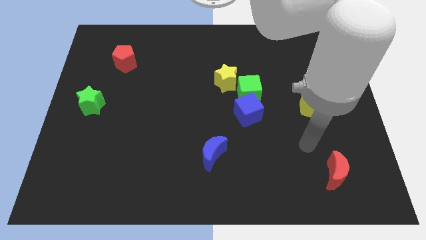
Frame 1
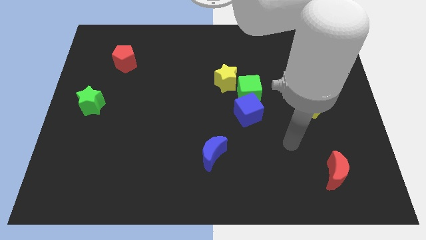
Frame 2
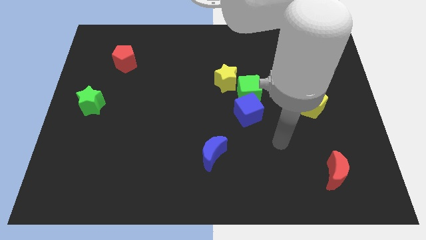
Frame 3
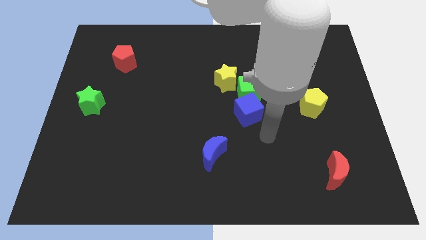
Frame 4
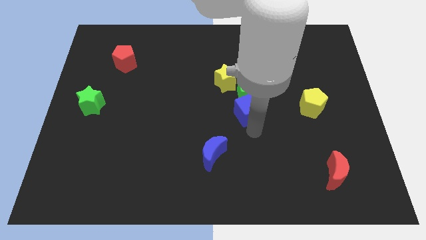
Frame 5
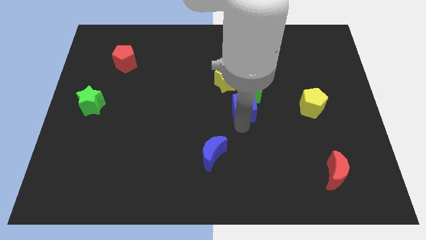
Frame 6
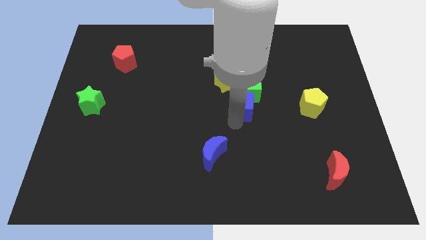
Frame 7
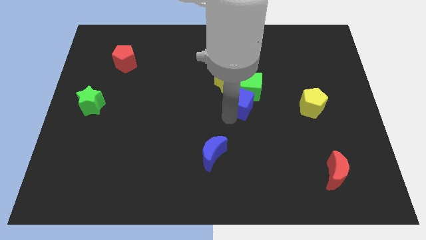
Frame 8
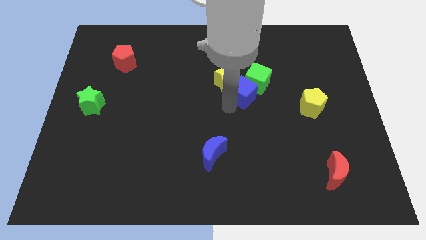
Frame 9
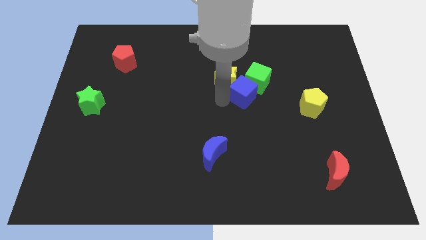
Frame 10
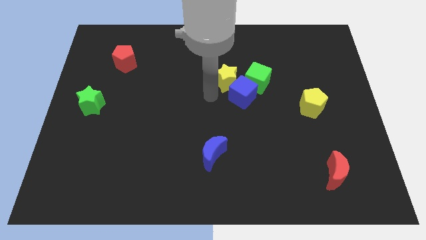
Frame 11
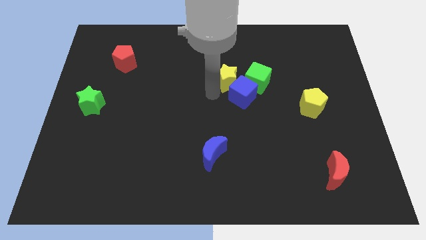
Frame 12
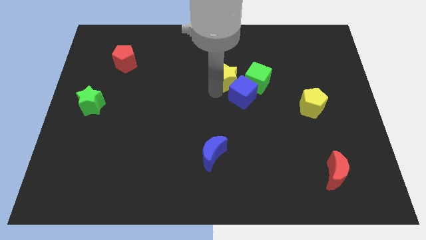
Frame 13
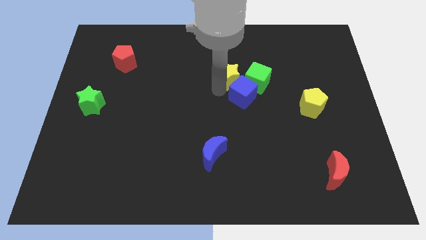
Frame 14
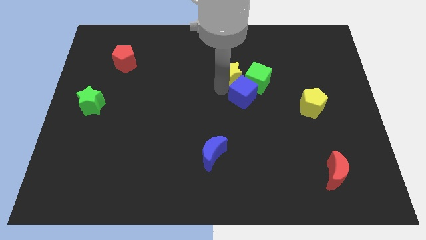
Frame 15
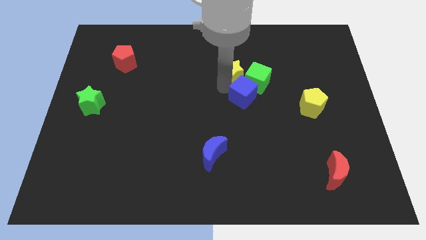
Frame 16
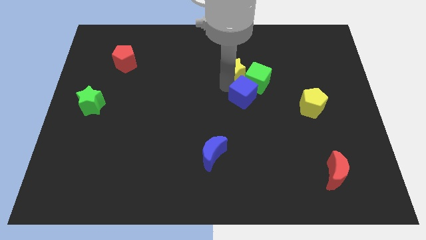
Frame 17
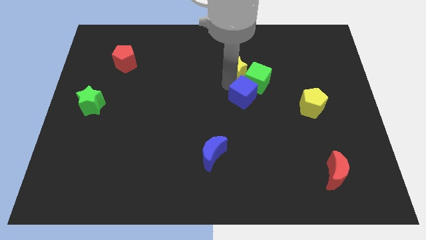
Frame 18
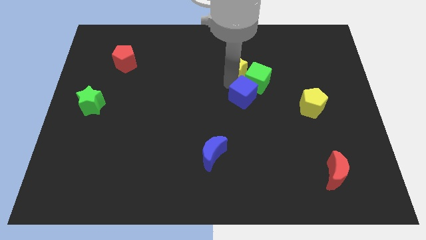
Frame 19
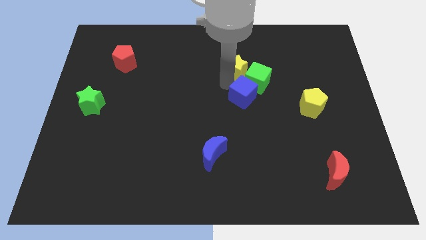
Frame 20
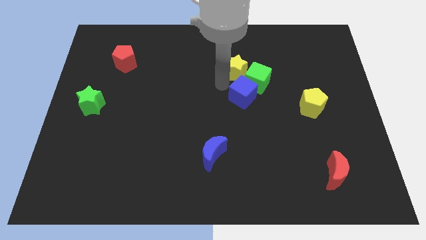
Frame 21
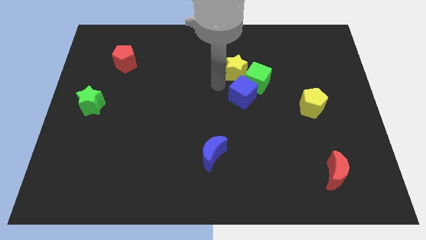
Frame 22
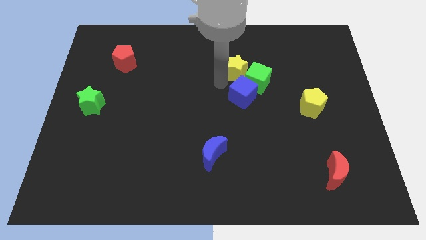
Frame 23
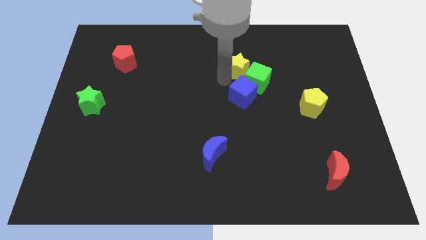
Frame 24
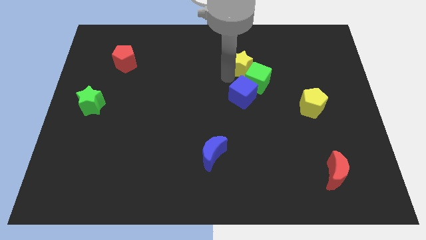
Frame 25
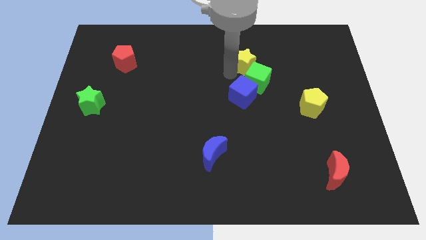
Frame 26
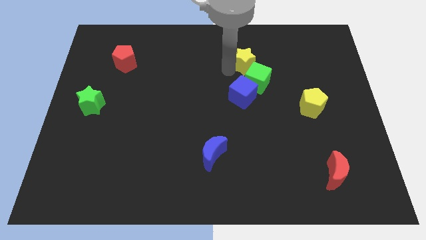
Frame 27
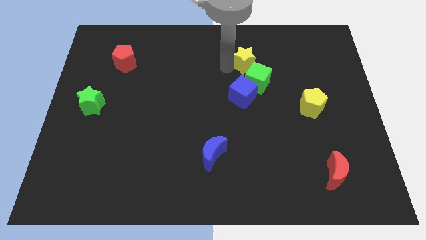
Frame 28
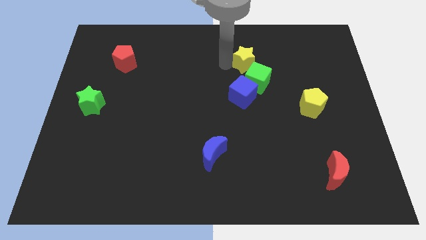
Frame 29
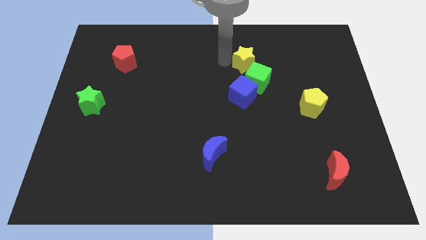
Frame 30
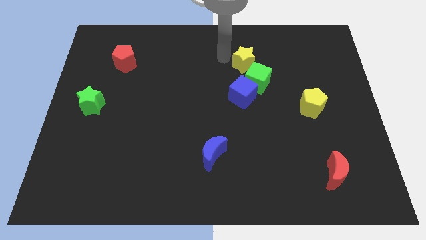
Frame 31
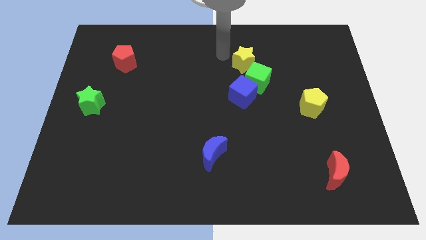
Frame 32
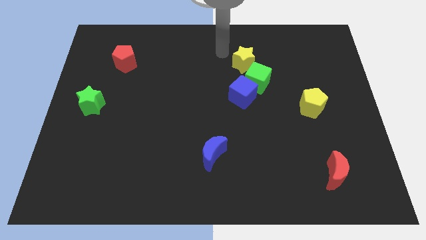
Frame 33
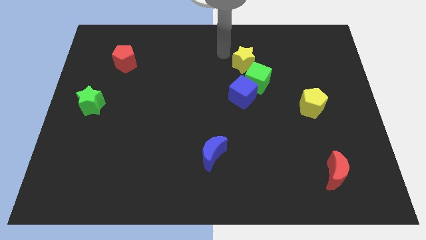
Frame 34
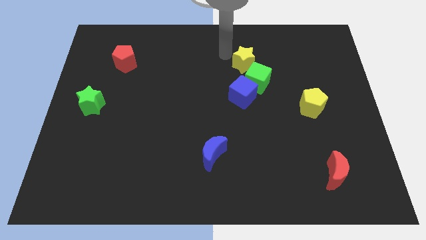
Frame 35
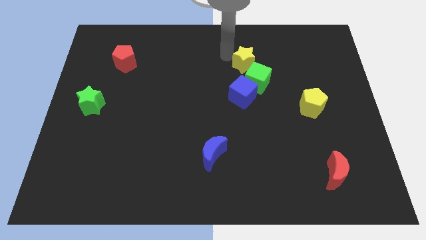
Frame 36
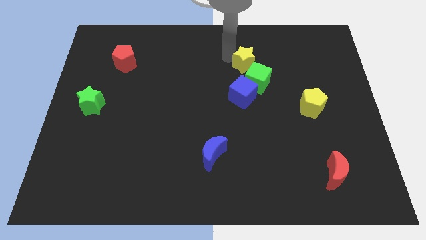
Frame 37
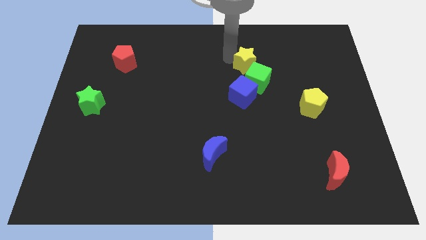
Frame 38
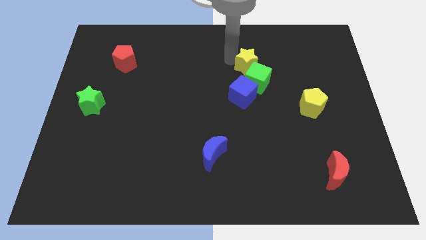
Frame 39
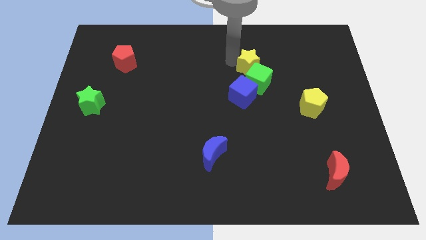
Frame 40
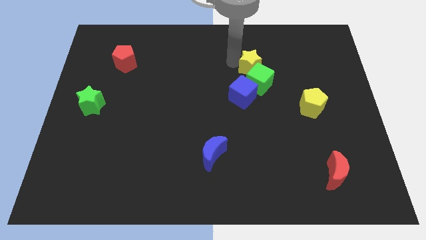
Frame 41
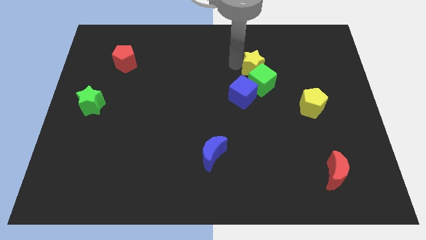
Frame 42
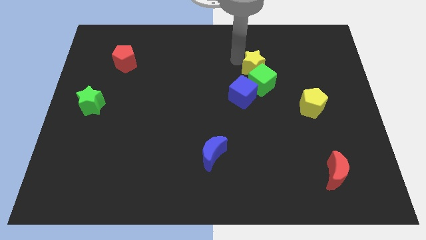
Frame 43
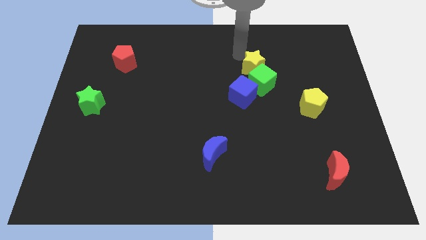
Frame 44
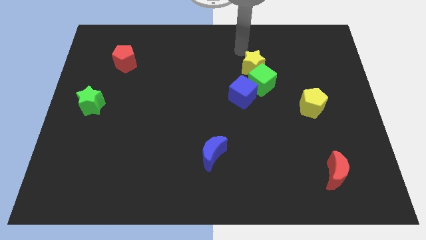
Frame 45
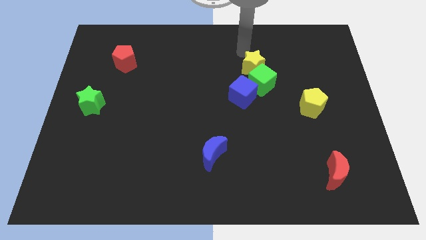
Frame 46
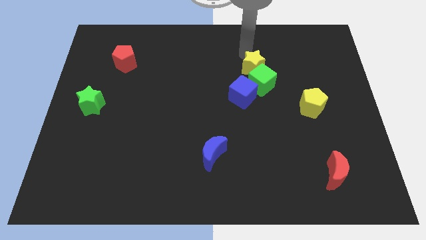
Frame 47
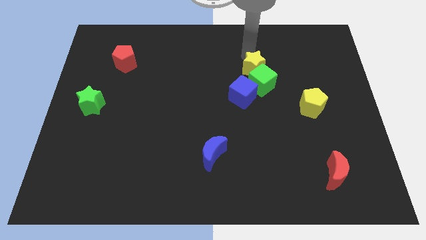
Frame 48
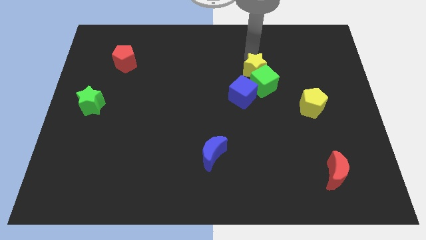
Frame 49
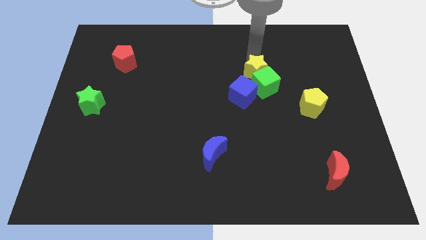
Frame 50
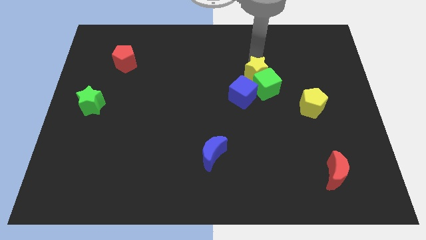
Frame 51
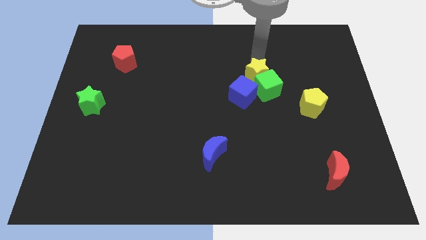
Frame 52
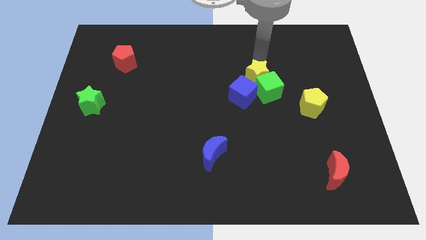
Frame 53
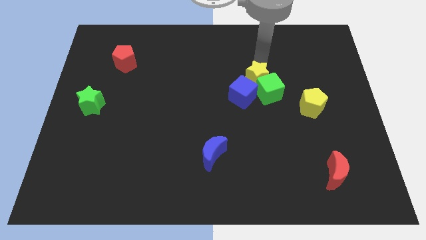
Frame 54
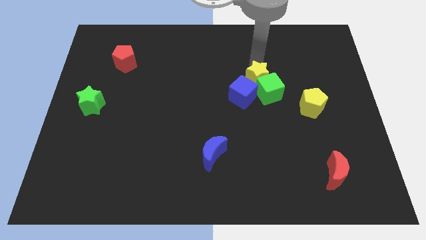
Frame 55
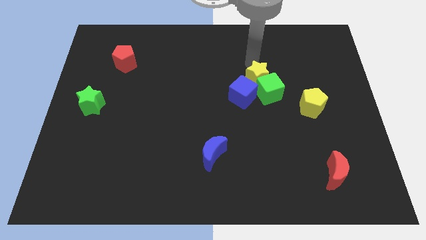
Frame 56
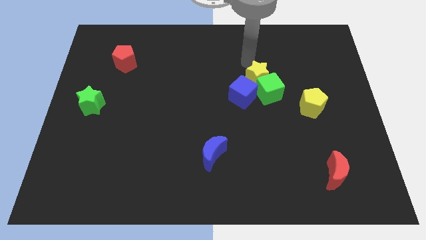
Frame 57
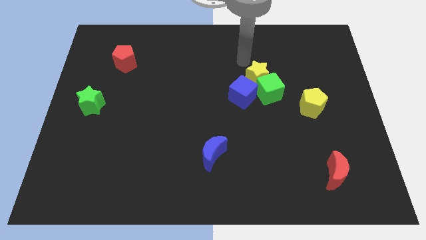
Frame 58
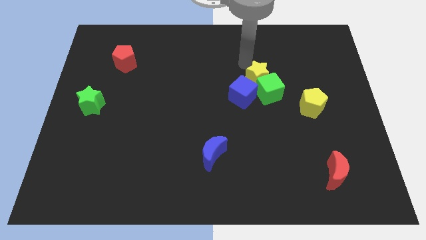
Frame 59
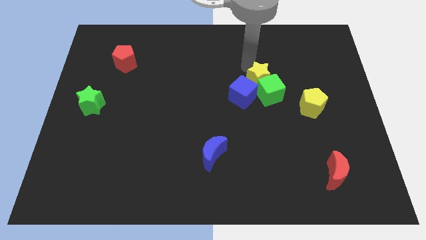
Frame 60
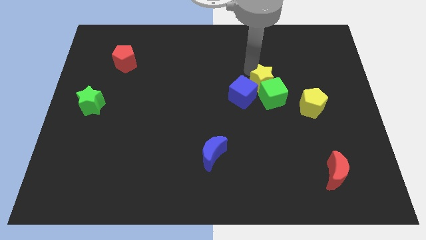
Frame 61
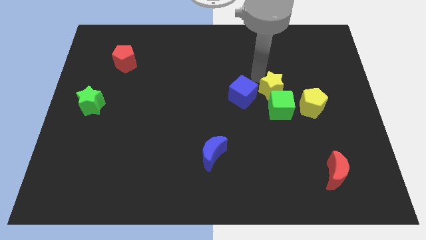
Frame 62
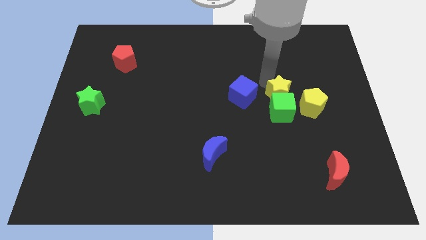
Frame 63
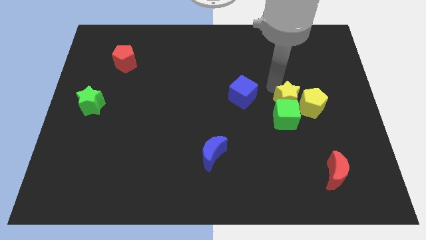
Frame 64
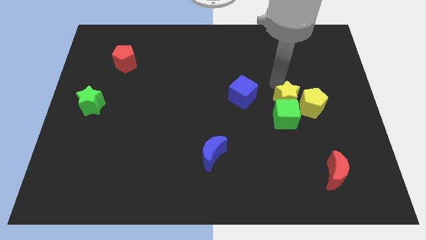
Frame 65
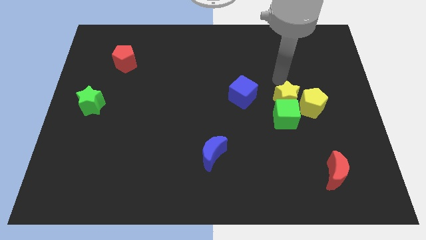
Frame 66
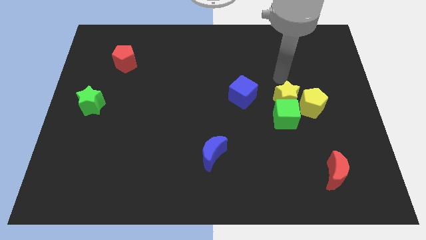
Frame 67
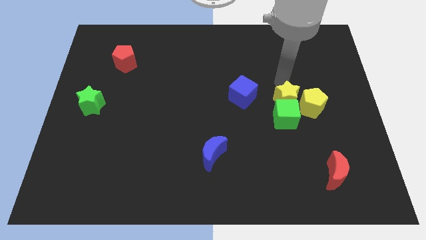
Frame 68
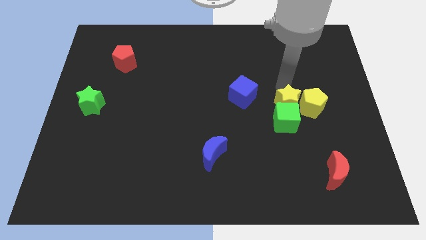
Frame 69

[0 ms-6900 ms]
move the yellow star to the bottom left side of the yellow pentagon

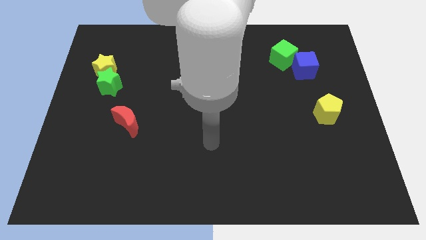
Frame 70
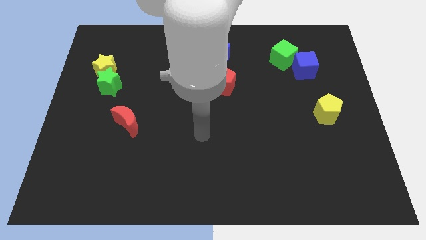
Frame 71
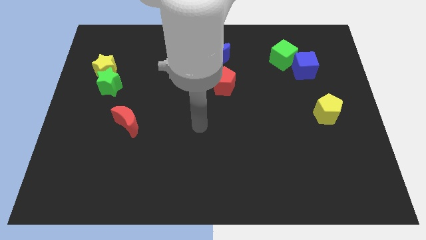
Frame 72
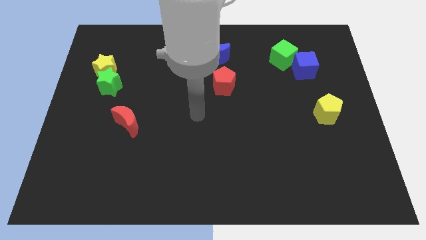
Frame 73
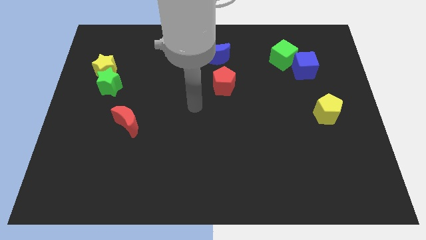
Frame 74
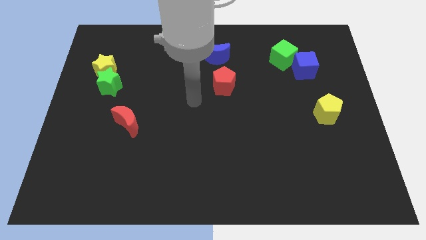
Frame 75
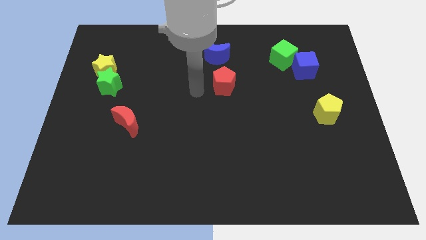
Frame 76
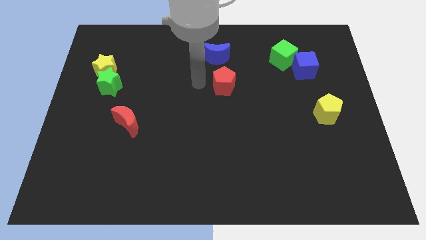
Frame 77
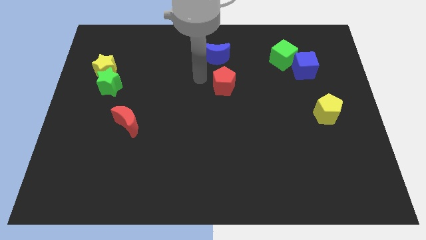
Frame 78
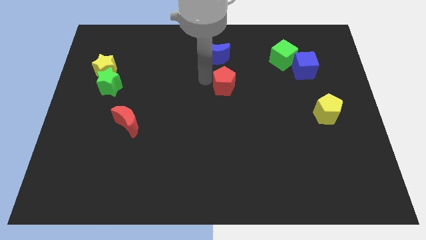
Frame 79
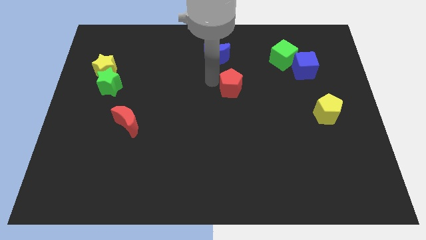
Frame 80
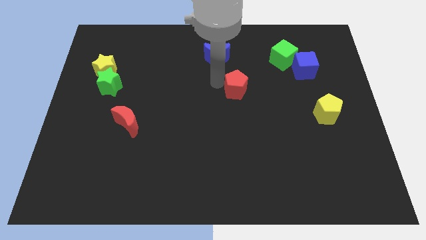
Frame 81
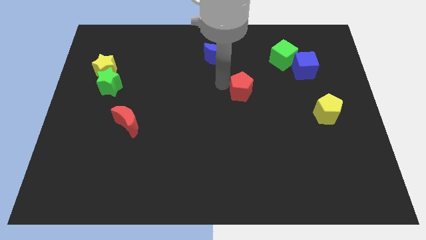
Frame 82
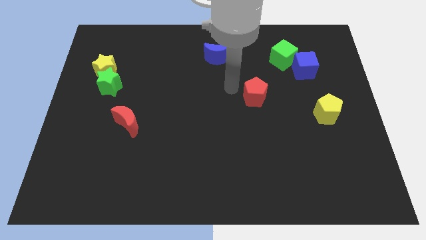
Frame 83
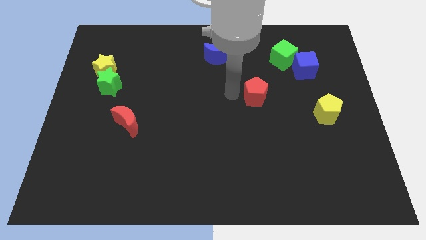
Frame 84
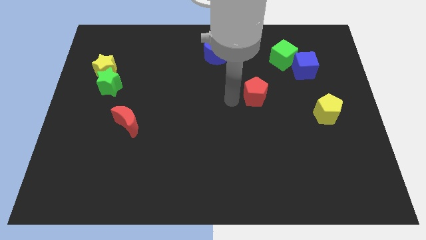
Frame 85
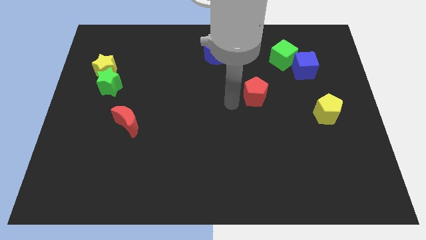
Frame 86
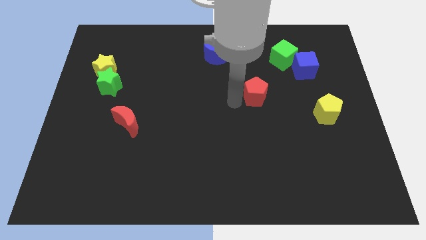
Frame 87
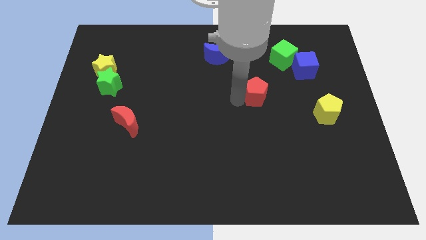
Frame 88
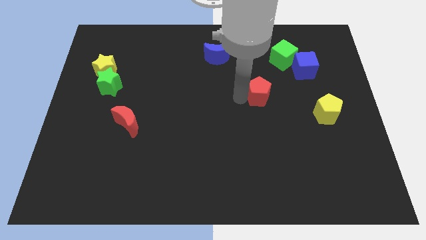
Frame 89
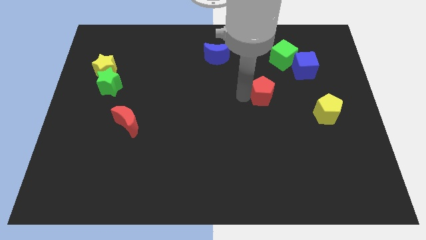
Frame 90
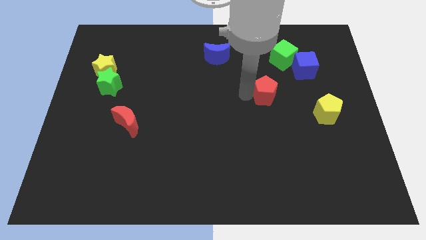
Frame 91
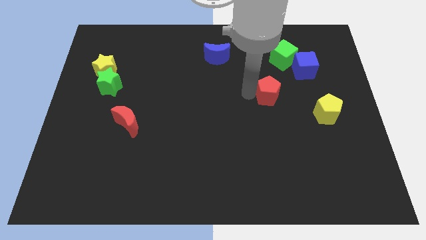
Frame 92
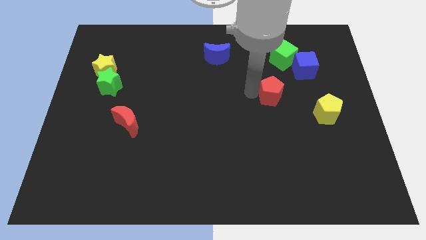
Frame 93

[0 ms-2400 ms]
push the red pentagon to the bottom left of the blue cube
